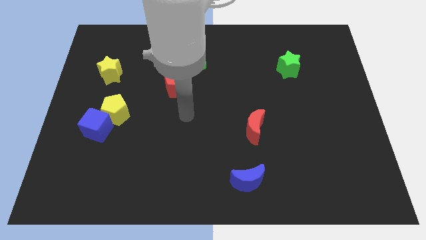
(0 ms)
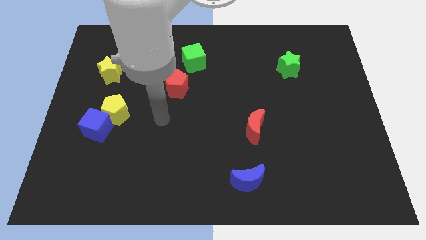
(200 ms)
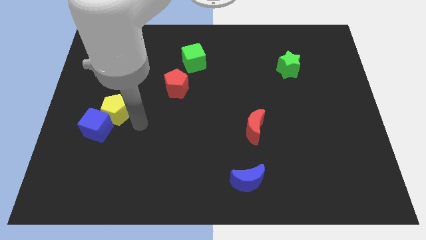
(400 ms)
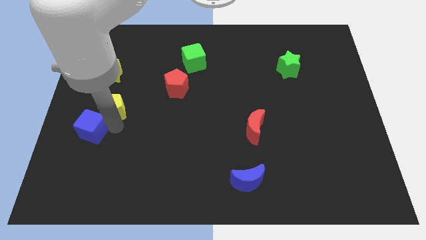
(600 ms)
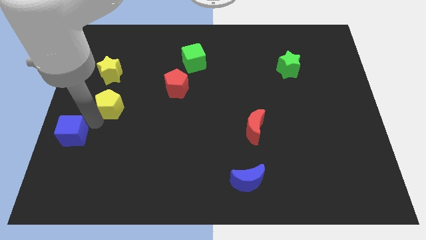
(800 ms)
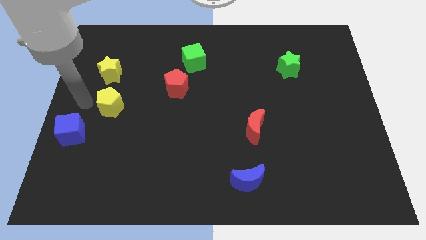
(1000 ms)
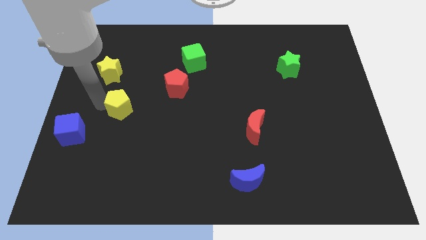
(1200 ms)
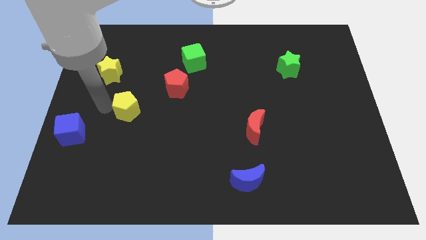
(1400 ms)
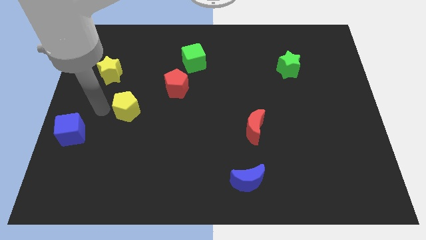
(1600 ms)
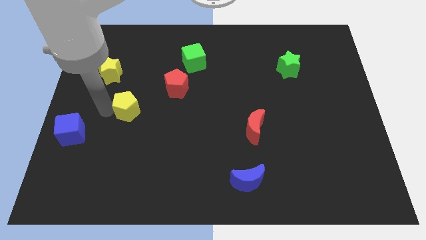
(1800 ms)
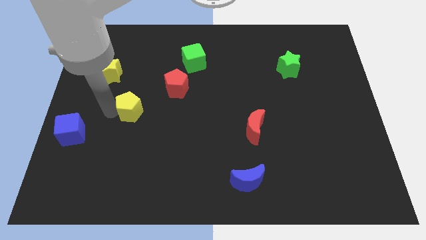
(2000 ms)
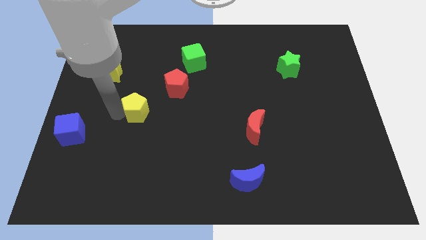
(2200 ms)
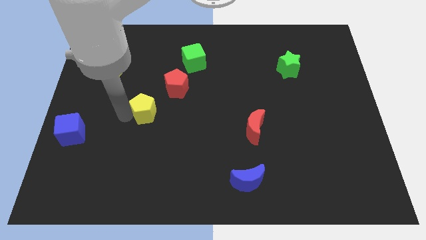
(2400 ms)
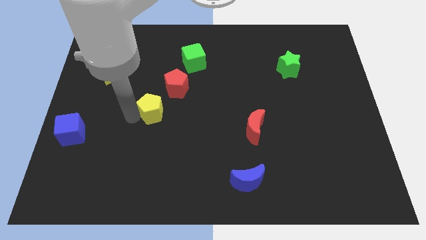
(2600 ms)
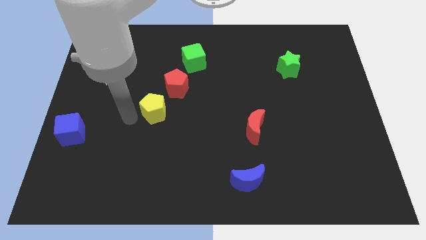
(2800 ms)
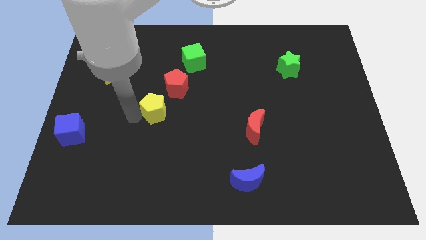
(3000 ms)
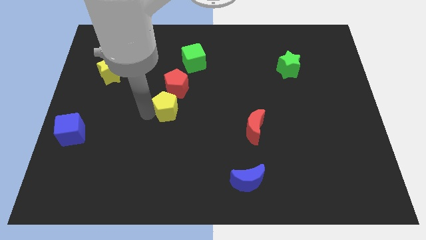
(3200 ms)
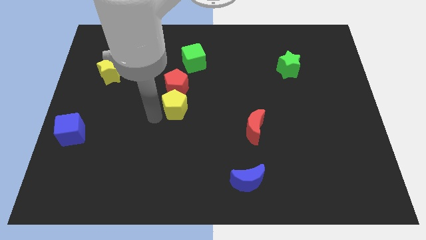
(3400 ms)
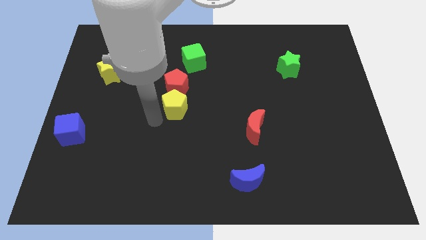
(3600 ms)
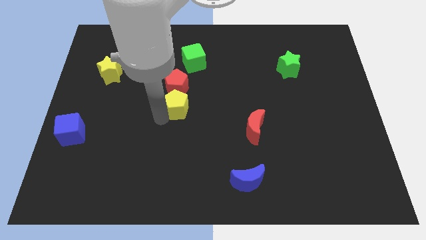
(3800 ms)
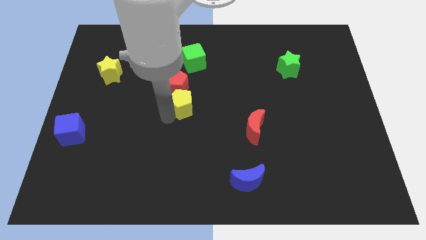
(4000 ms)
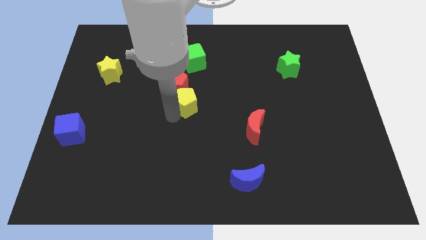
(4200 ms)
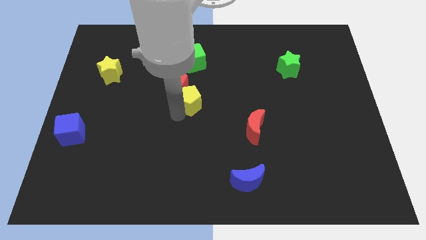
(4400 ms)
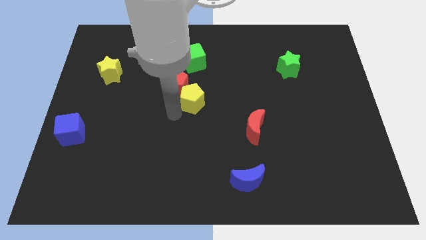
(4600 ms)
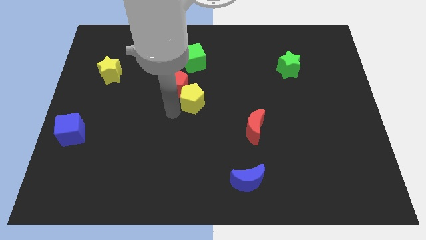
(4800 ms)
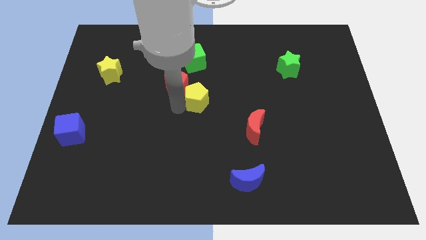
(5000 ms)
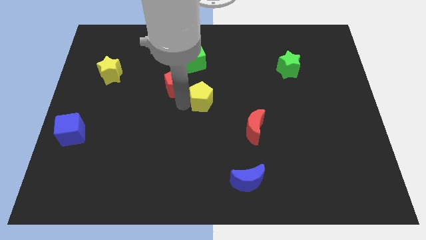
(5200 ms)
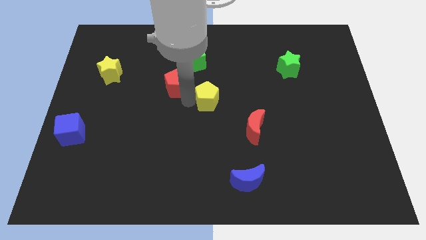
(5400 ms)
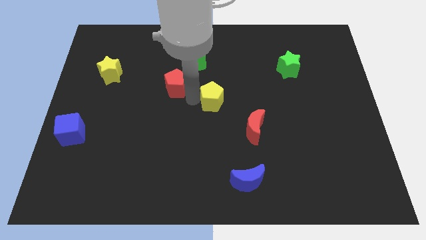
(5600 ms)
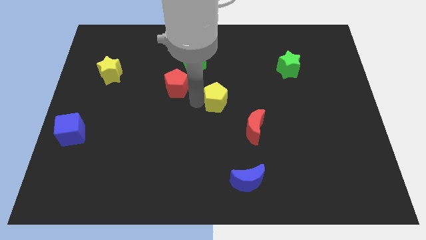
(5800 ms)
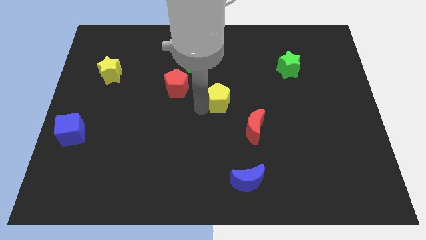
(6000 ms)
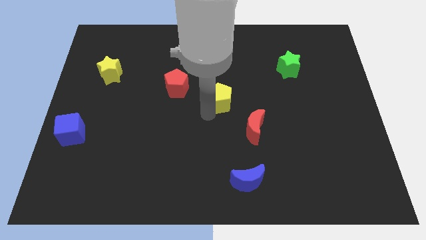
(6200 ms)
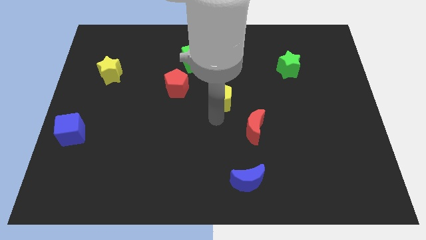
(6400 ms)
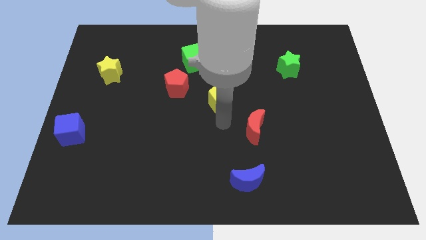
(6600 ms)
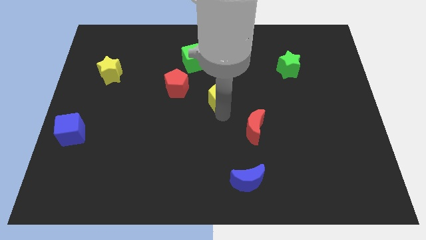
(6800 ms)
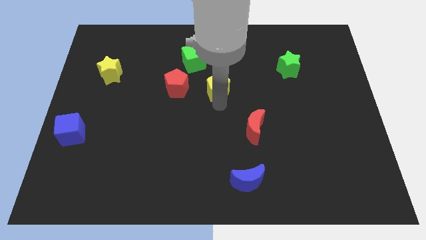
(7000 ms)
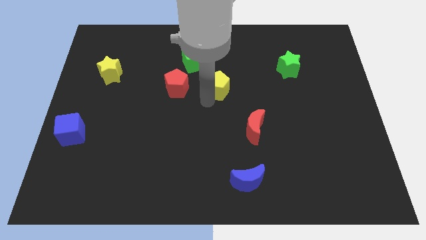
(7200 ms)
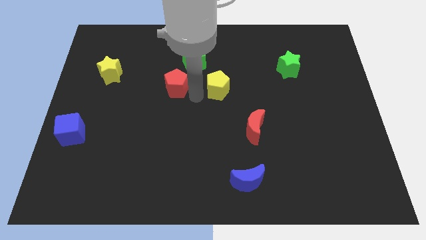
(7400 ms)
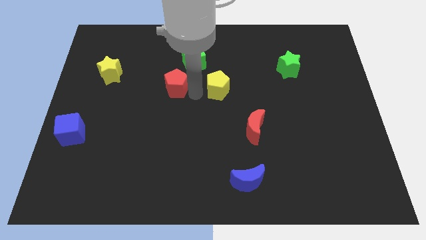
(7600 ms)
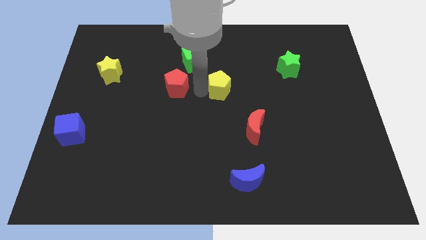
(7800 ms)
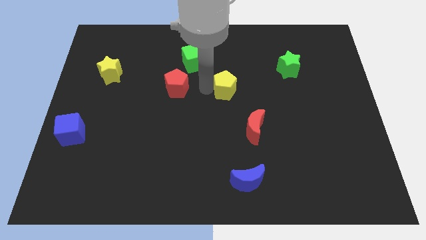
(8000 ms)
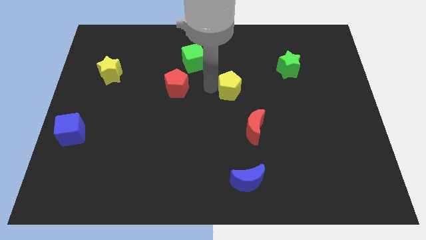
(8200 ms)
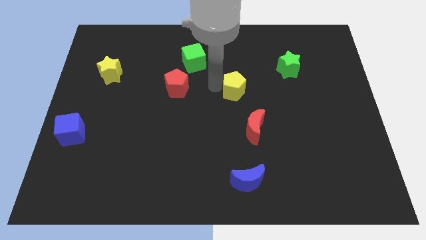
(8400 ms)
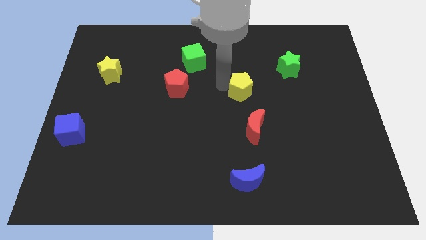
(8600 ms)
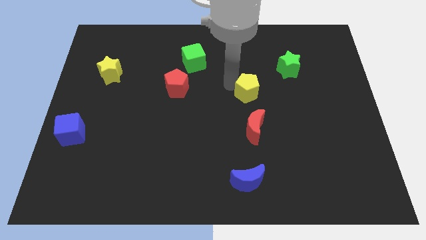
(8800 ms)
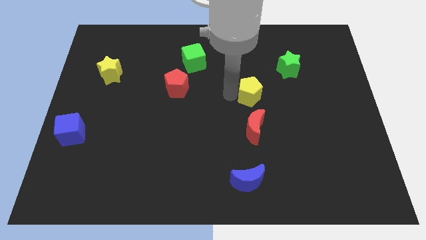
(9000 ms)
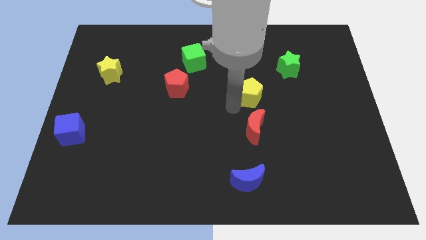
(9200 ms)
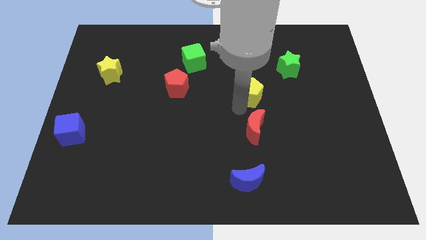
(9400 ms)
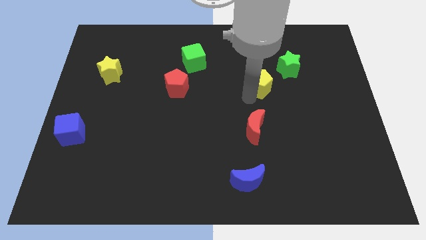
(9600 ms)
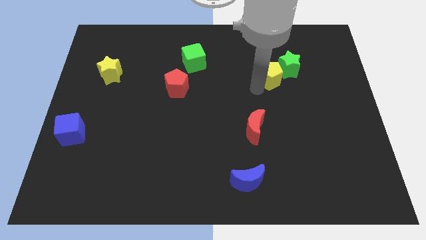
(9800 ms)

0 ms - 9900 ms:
push the yellow pentagon next to the green star

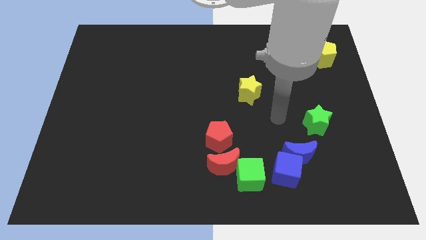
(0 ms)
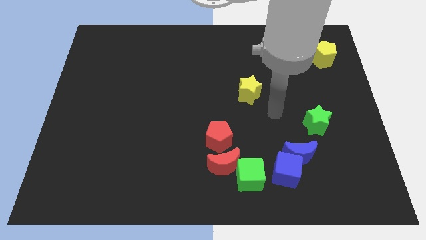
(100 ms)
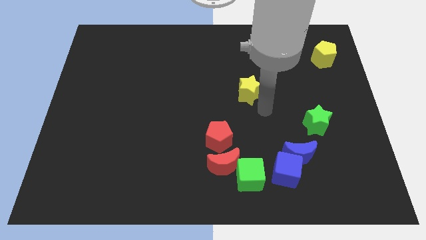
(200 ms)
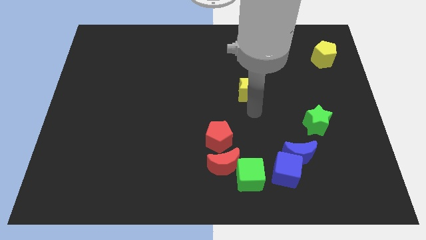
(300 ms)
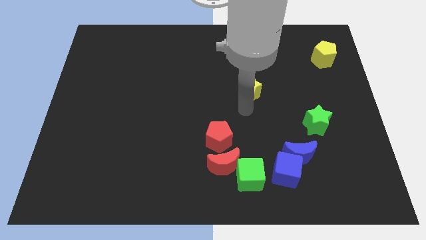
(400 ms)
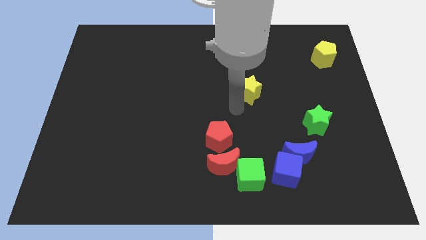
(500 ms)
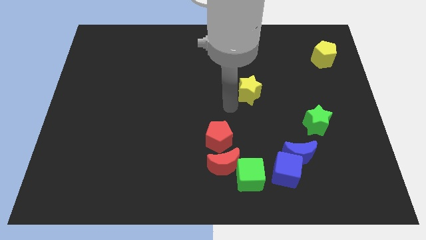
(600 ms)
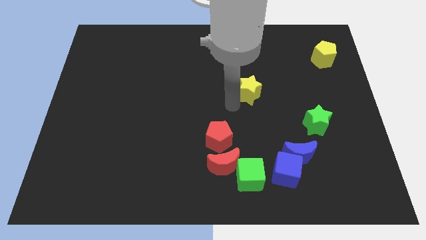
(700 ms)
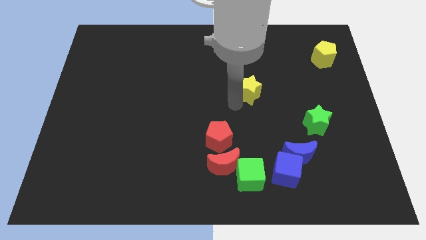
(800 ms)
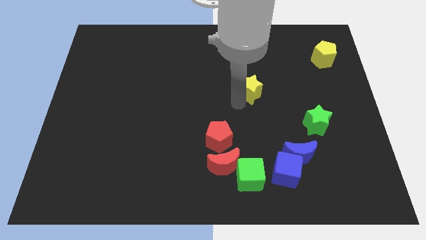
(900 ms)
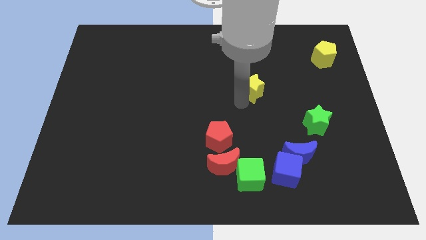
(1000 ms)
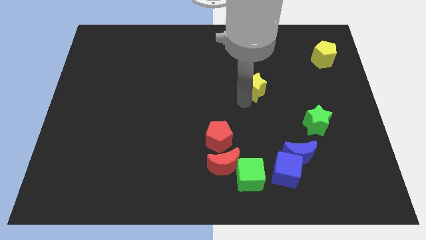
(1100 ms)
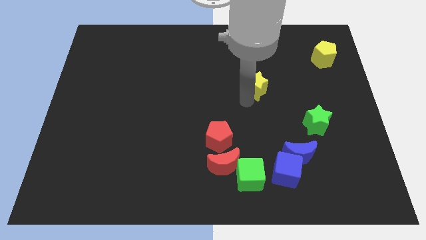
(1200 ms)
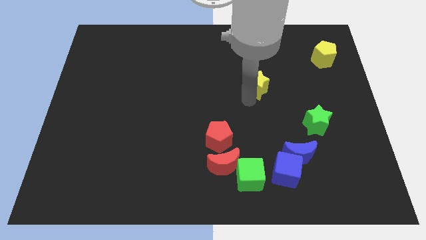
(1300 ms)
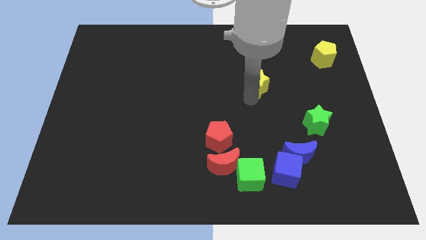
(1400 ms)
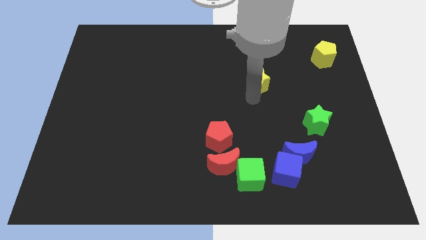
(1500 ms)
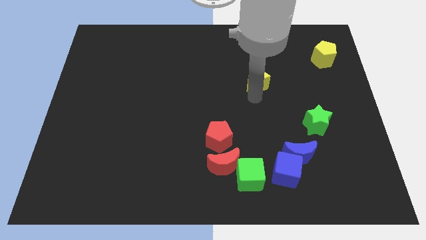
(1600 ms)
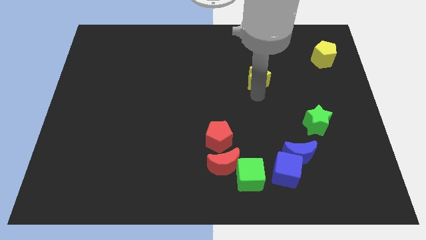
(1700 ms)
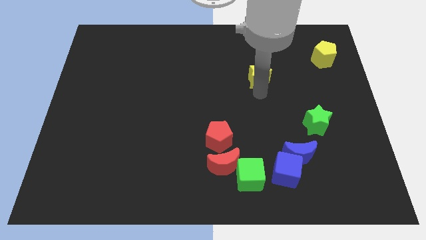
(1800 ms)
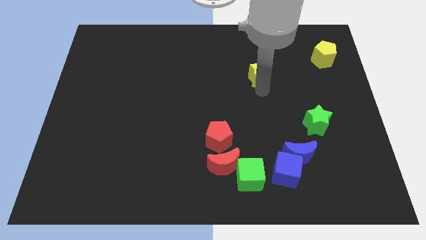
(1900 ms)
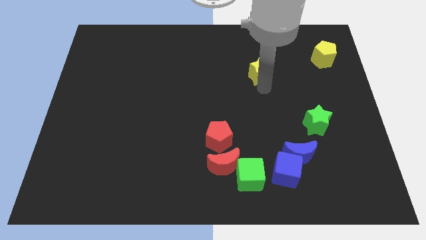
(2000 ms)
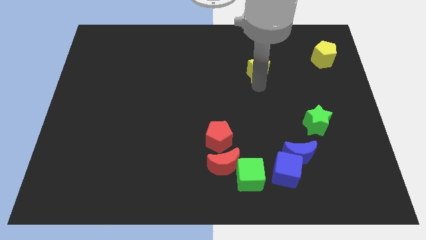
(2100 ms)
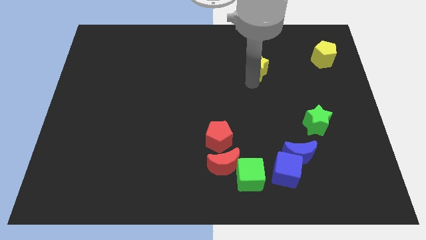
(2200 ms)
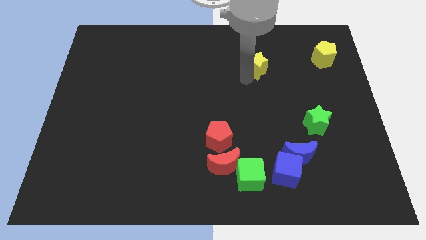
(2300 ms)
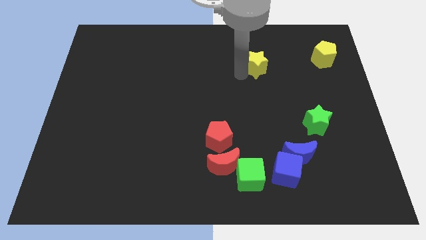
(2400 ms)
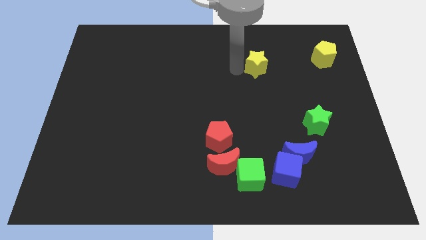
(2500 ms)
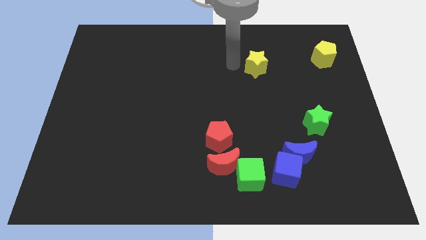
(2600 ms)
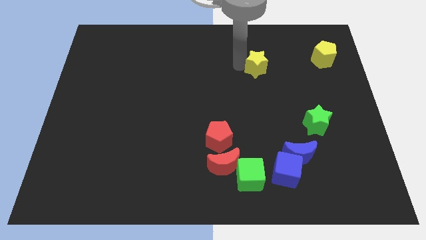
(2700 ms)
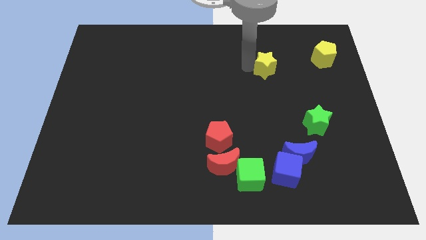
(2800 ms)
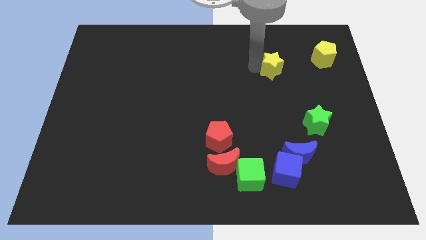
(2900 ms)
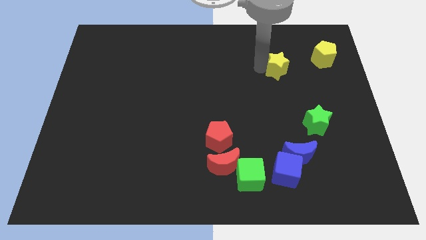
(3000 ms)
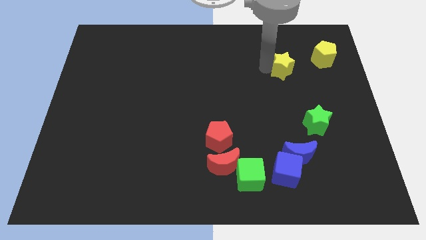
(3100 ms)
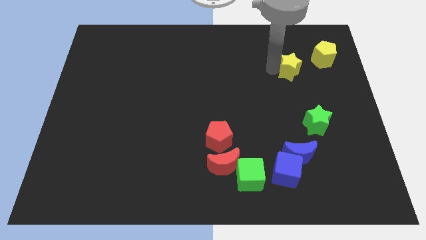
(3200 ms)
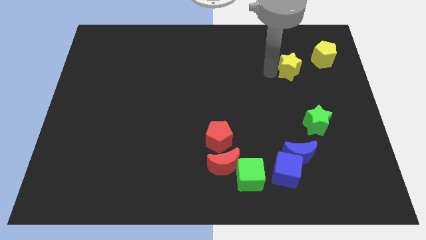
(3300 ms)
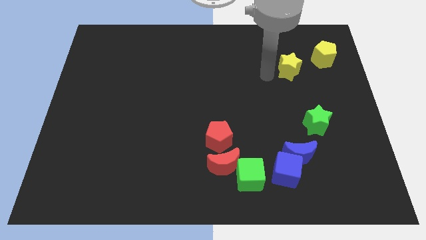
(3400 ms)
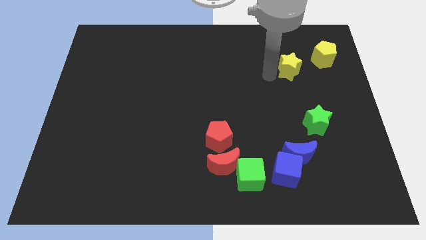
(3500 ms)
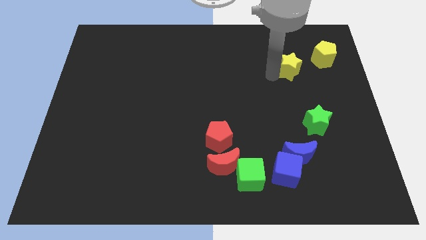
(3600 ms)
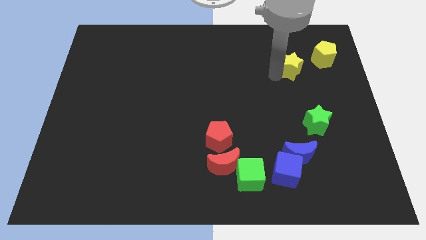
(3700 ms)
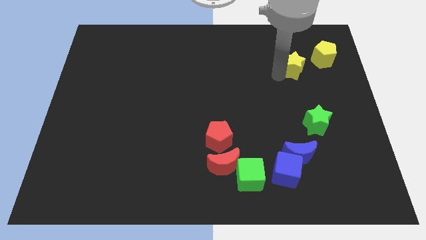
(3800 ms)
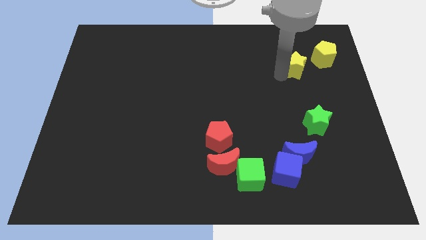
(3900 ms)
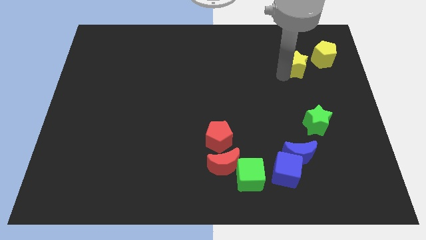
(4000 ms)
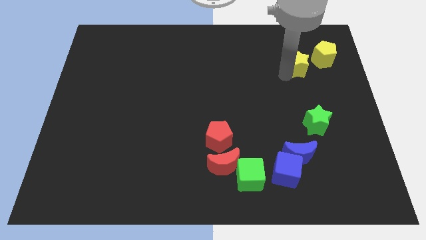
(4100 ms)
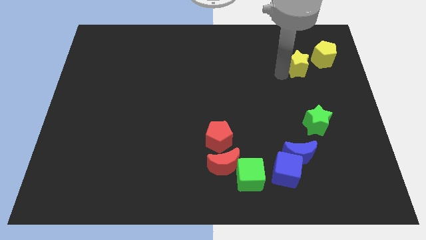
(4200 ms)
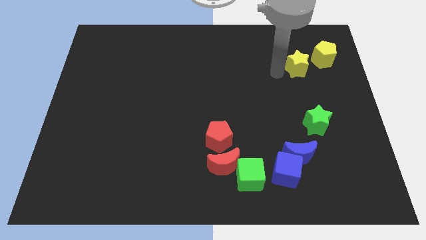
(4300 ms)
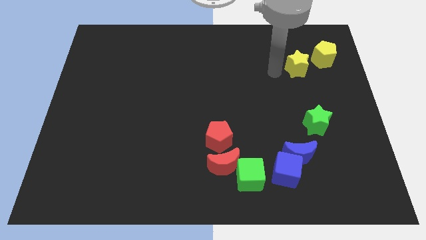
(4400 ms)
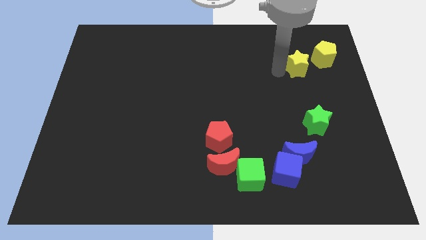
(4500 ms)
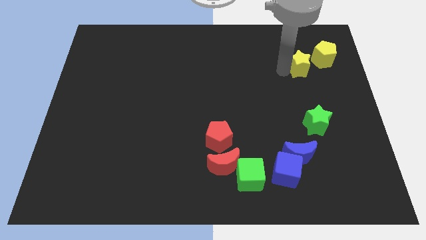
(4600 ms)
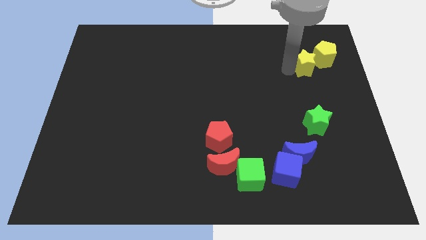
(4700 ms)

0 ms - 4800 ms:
put the yellow star next to the yellow pentagon
